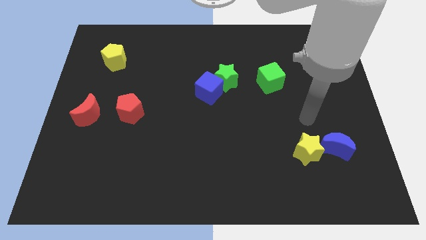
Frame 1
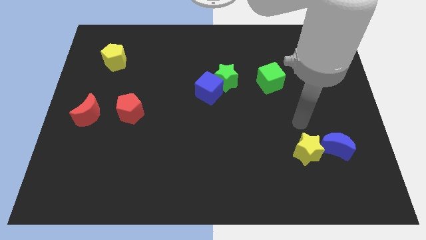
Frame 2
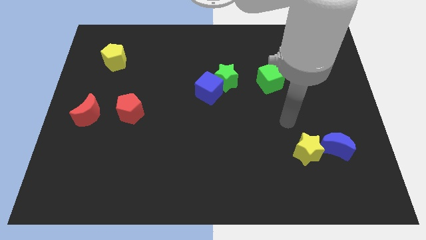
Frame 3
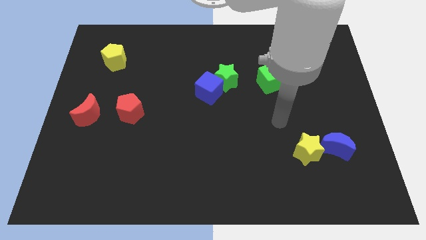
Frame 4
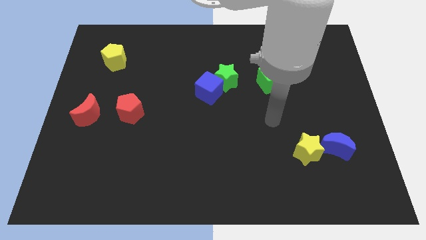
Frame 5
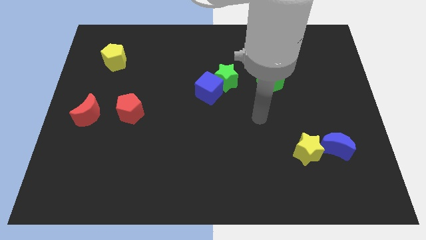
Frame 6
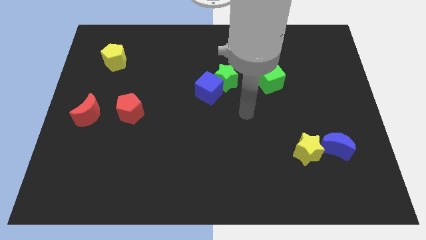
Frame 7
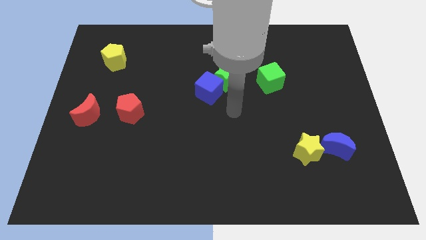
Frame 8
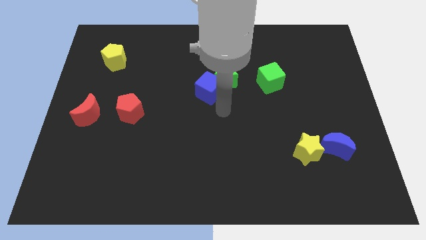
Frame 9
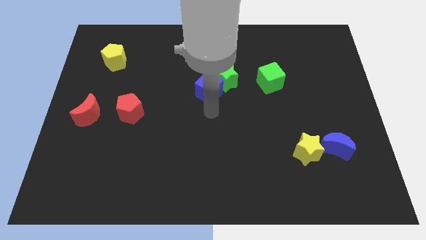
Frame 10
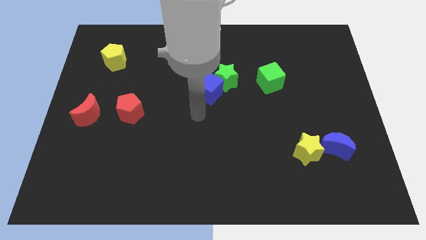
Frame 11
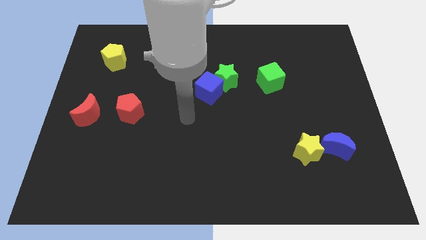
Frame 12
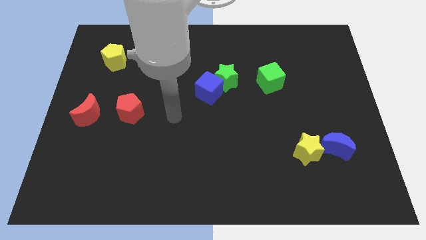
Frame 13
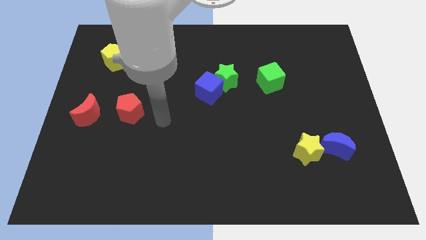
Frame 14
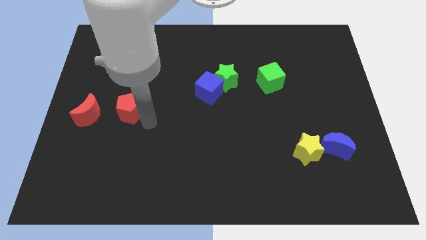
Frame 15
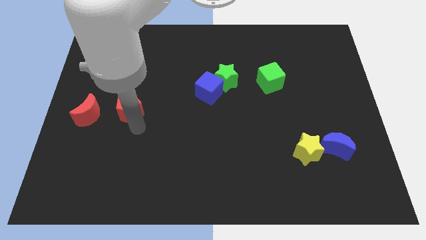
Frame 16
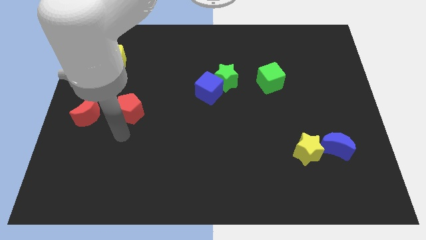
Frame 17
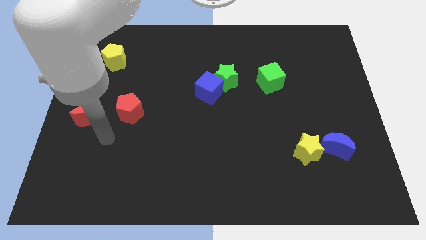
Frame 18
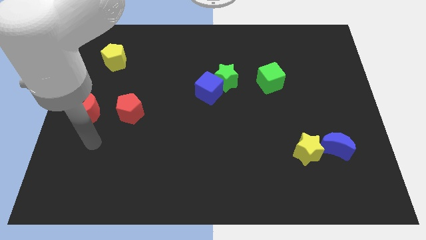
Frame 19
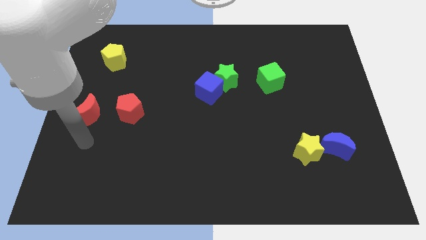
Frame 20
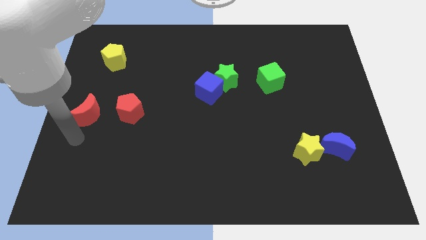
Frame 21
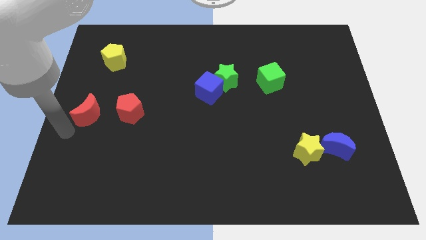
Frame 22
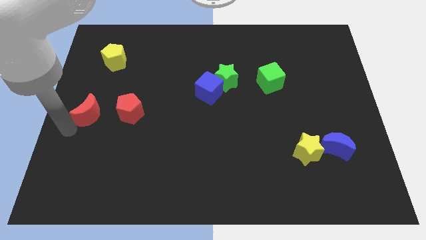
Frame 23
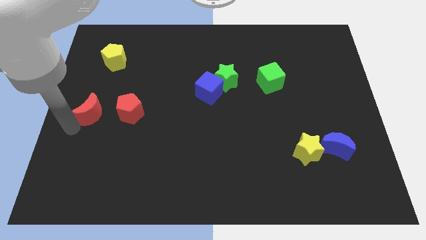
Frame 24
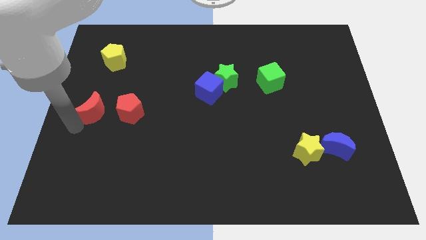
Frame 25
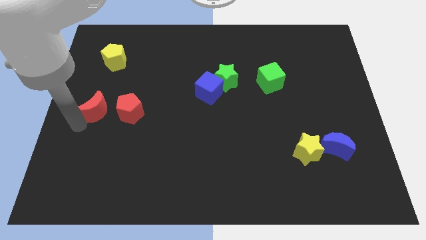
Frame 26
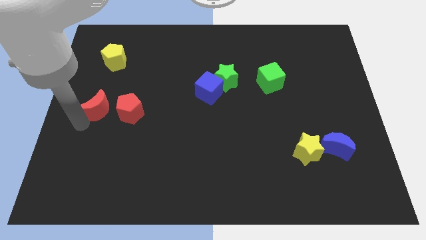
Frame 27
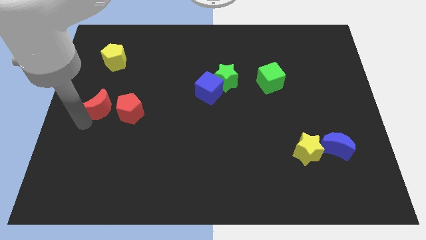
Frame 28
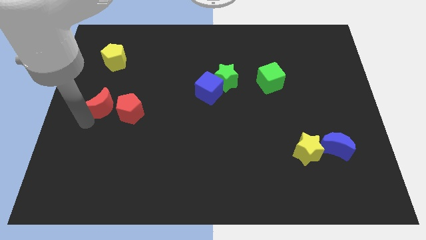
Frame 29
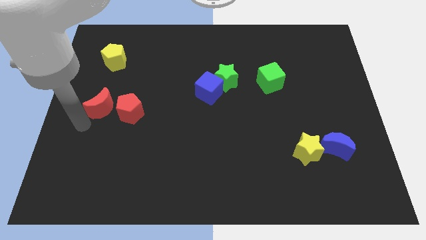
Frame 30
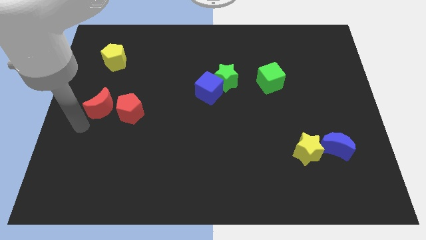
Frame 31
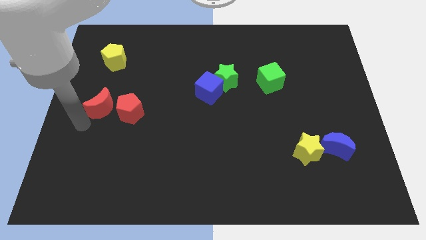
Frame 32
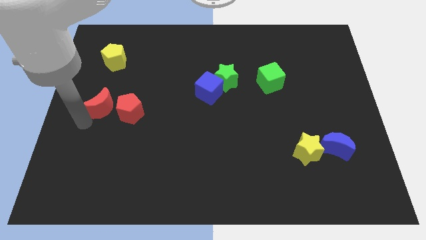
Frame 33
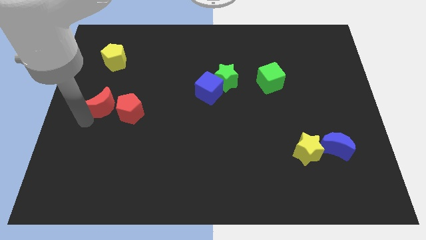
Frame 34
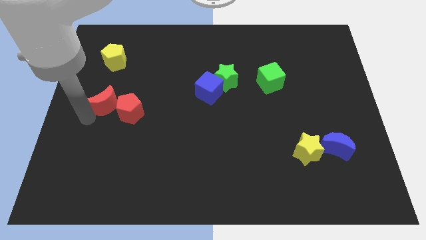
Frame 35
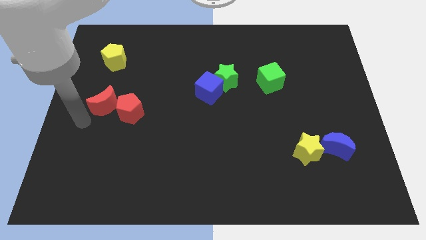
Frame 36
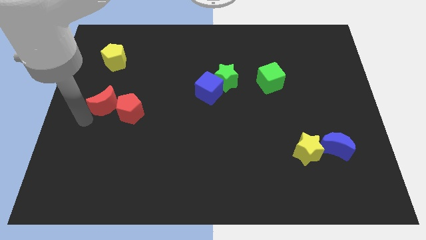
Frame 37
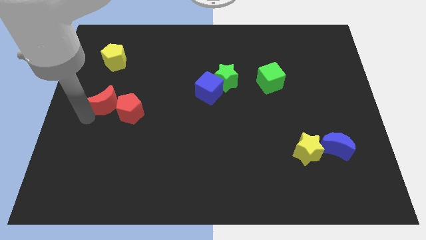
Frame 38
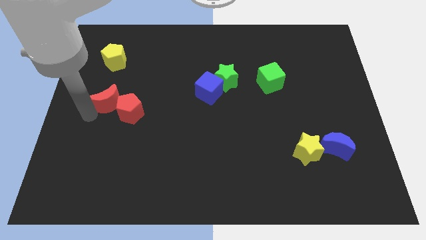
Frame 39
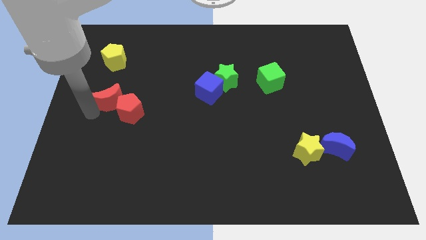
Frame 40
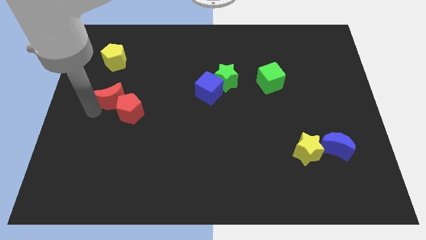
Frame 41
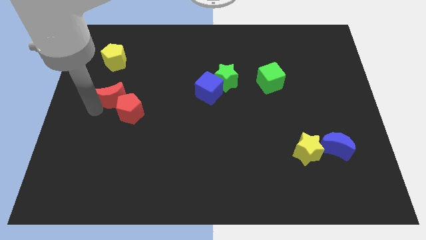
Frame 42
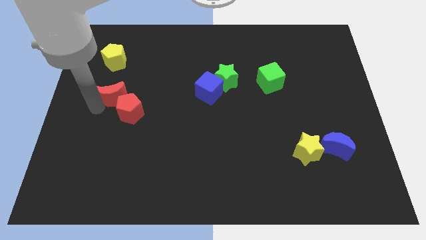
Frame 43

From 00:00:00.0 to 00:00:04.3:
move the red moon upwards and right a bit

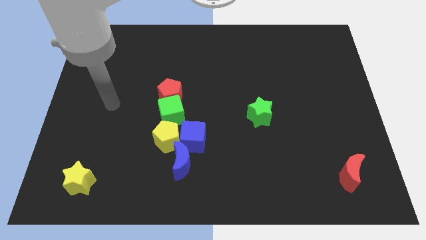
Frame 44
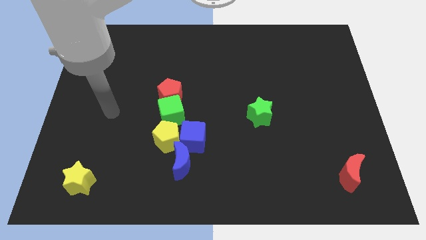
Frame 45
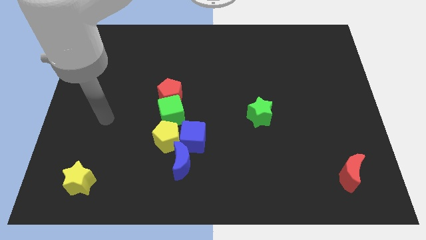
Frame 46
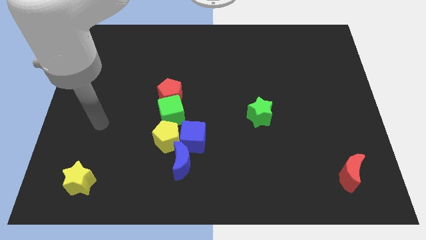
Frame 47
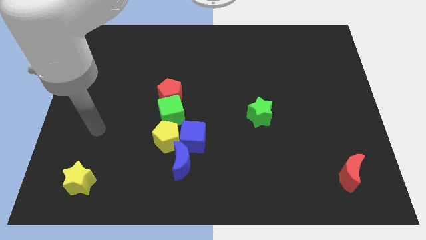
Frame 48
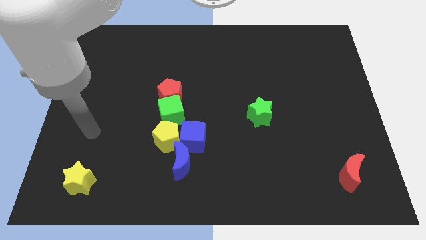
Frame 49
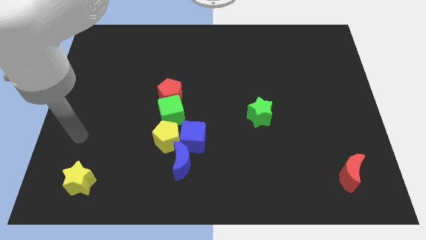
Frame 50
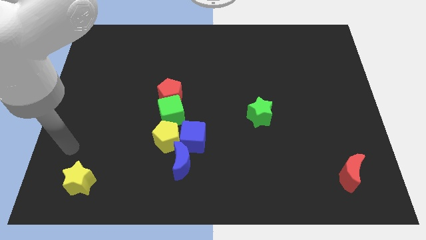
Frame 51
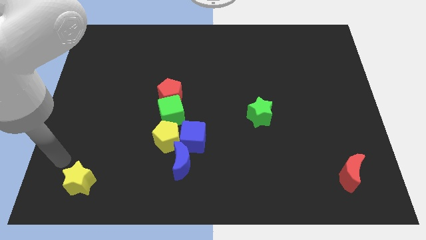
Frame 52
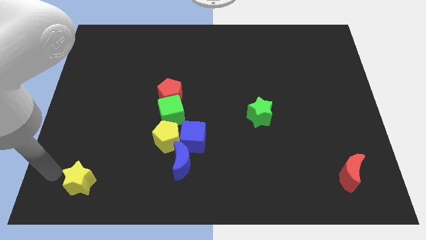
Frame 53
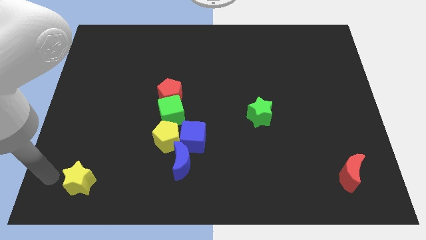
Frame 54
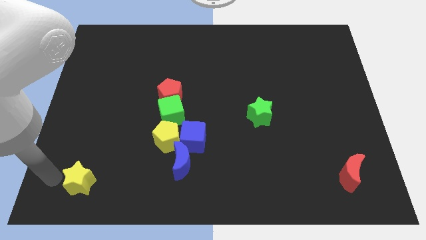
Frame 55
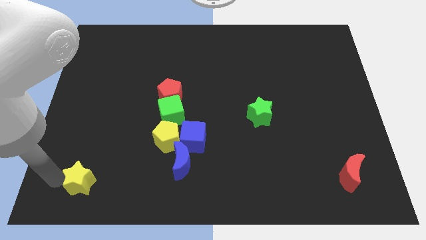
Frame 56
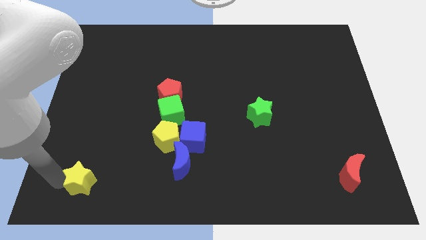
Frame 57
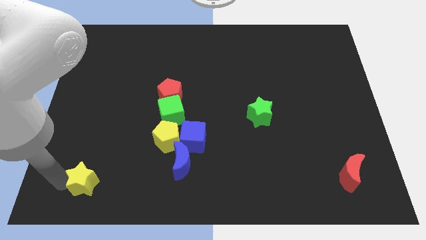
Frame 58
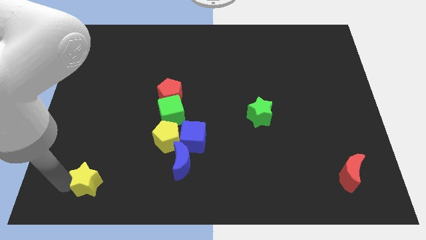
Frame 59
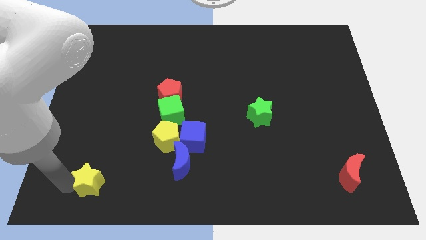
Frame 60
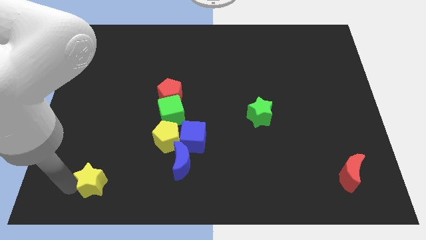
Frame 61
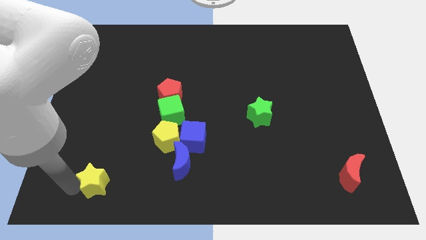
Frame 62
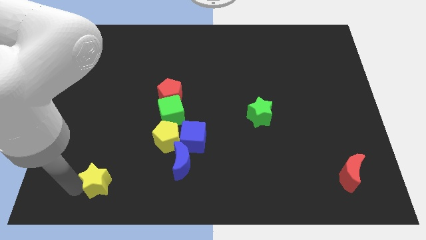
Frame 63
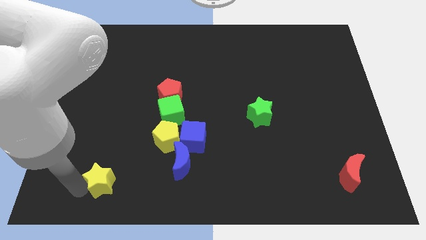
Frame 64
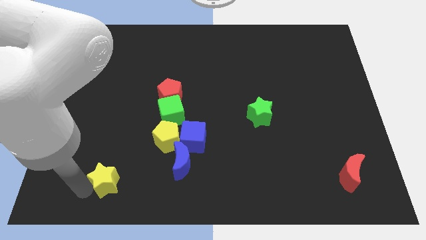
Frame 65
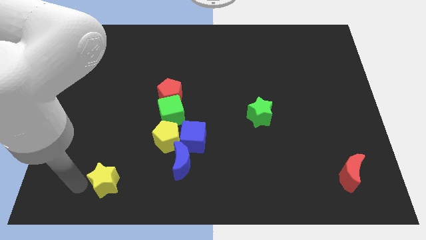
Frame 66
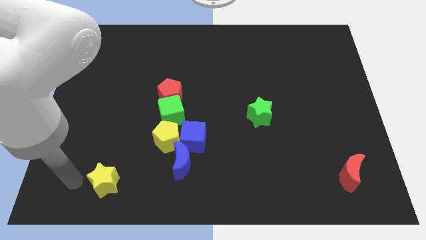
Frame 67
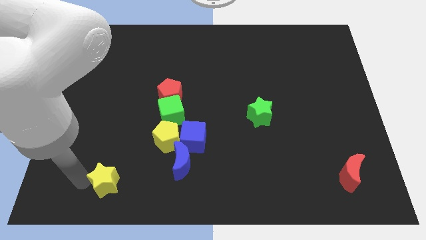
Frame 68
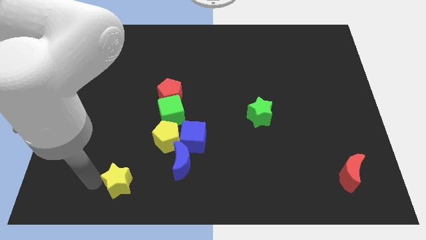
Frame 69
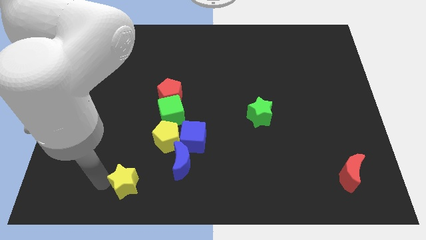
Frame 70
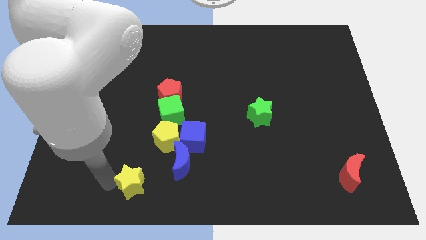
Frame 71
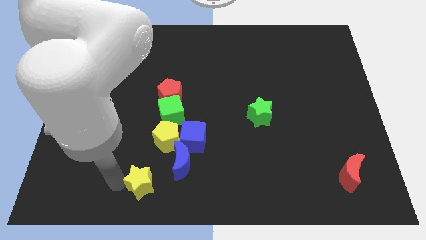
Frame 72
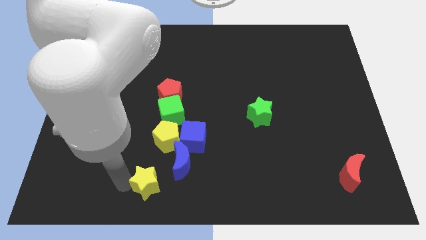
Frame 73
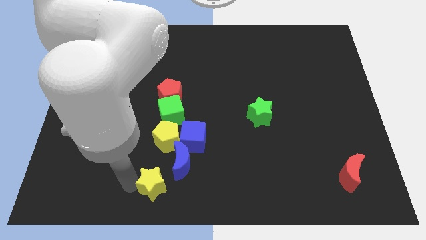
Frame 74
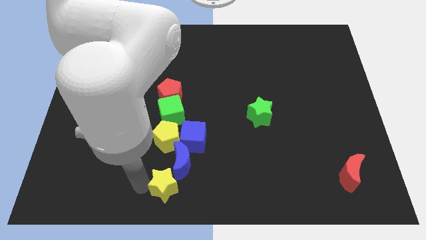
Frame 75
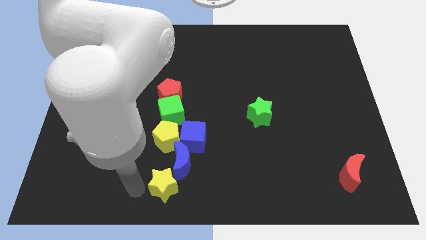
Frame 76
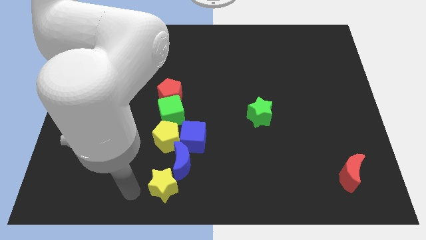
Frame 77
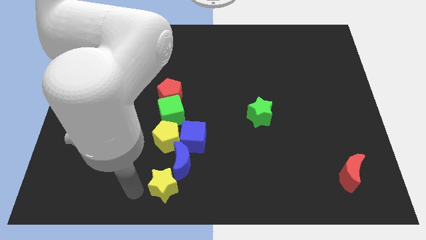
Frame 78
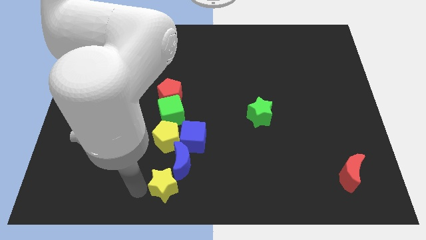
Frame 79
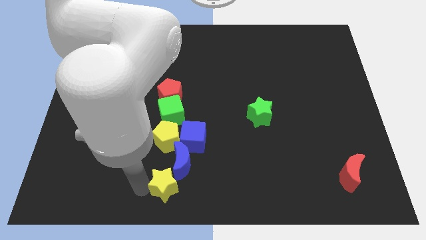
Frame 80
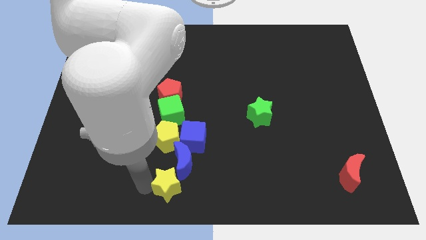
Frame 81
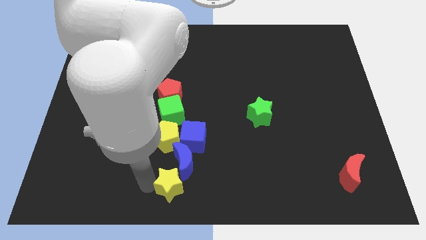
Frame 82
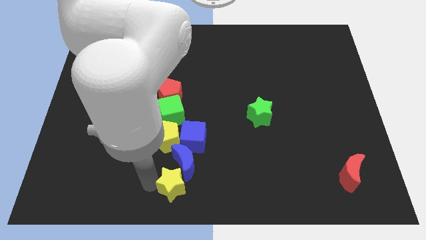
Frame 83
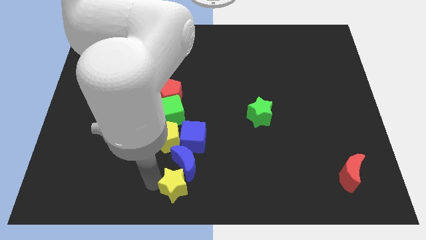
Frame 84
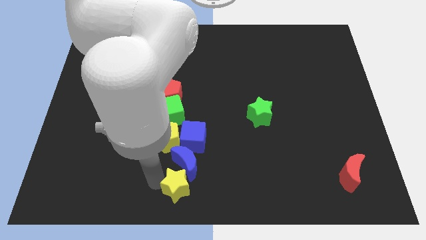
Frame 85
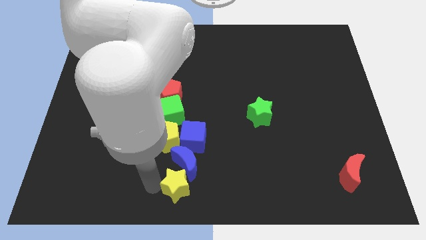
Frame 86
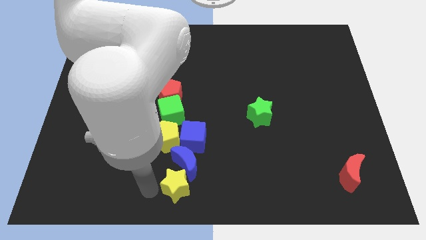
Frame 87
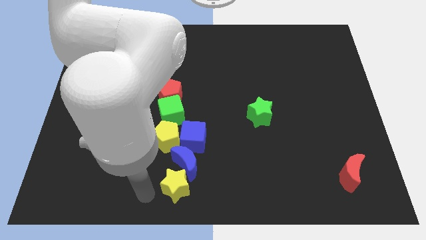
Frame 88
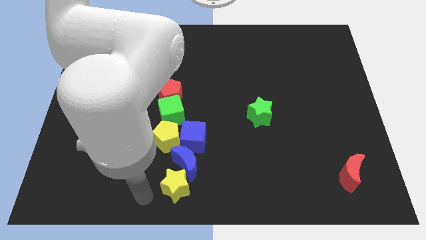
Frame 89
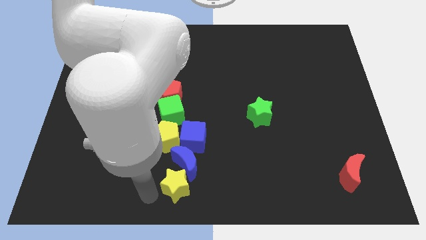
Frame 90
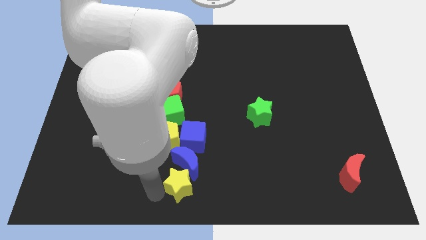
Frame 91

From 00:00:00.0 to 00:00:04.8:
push the yellow star to the right
